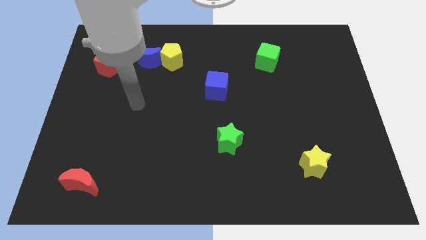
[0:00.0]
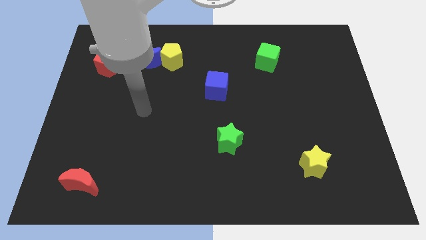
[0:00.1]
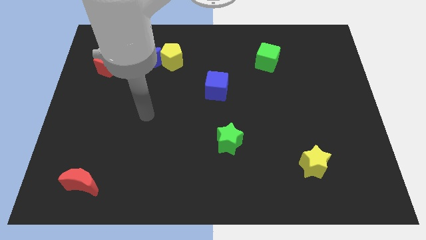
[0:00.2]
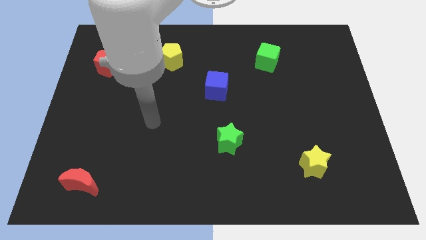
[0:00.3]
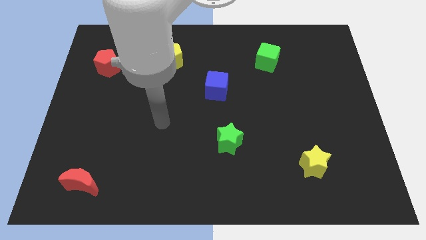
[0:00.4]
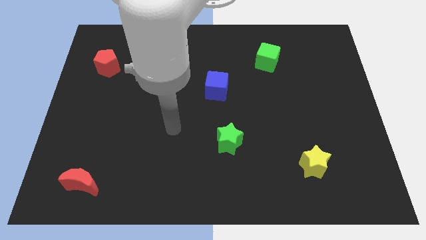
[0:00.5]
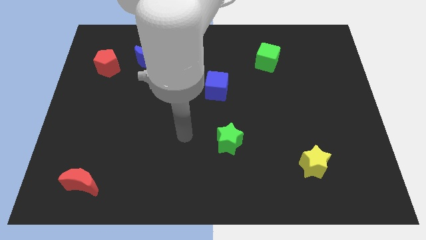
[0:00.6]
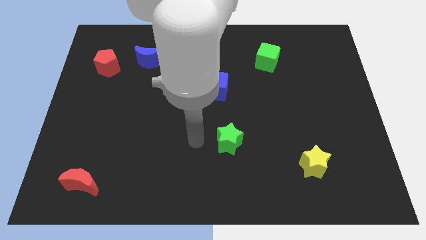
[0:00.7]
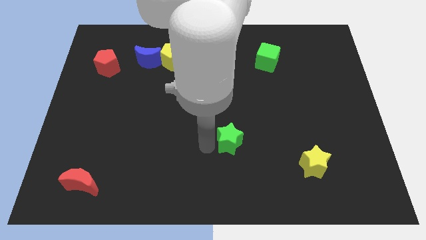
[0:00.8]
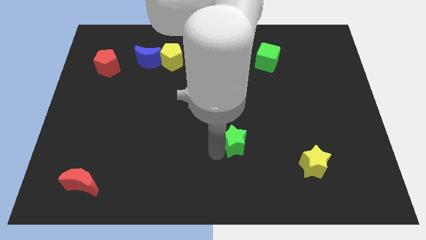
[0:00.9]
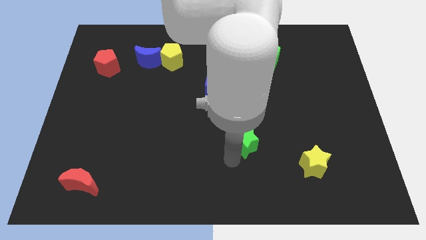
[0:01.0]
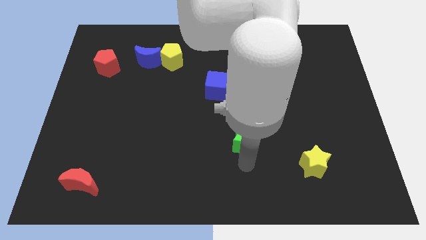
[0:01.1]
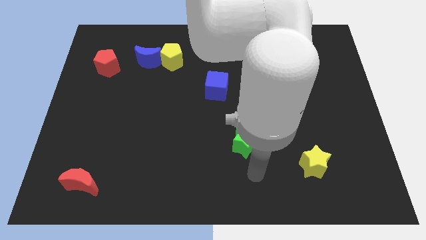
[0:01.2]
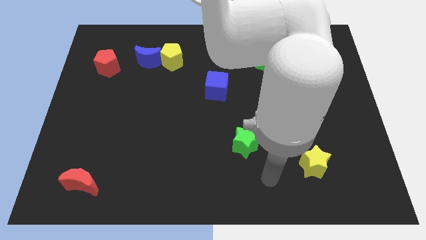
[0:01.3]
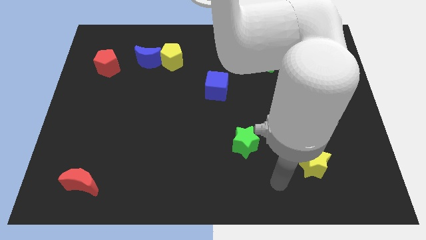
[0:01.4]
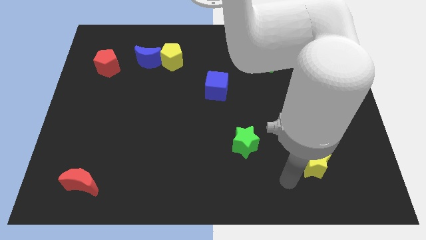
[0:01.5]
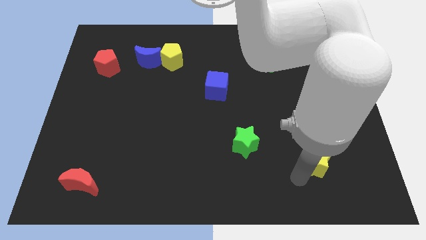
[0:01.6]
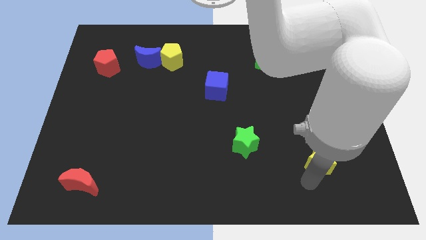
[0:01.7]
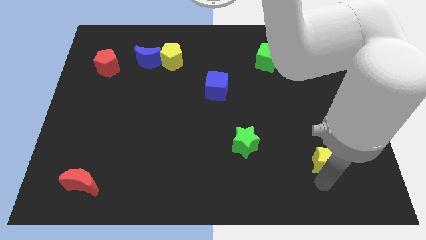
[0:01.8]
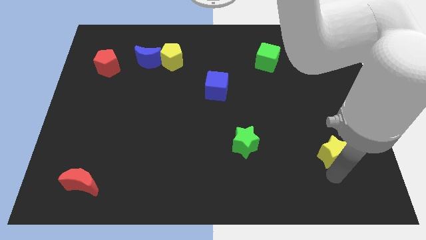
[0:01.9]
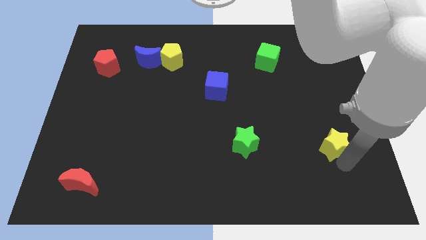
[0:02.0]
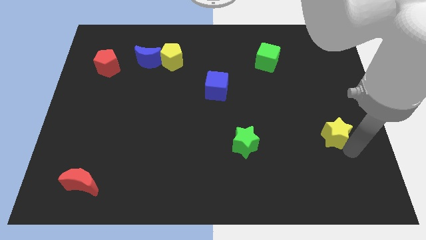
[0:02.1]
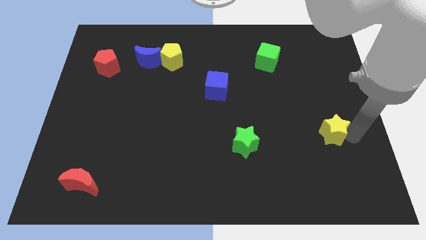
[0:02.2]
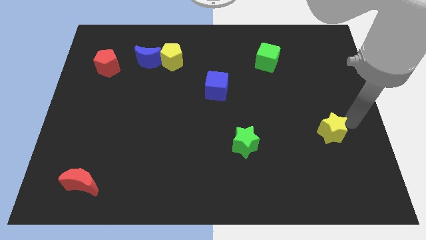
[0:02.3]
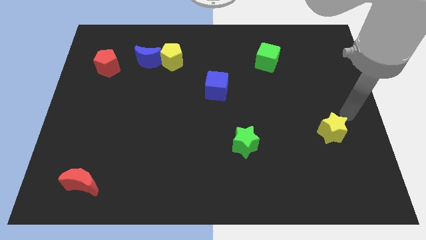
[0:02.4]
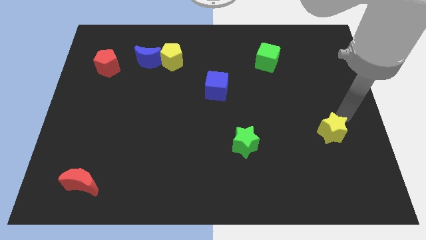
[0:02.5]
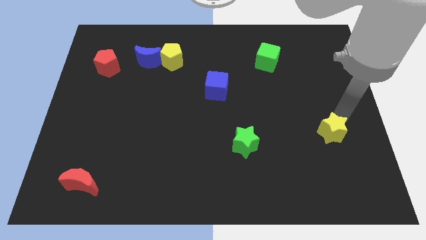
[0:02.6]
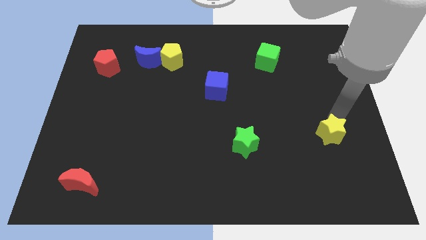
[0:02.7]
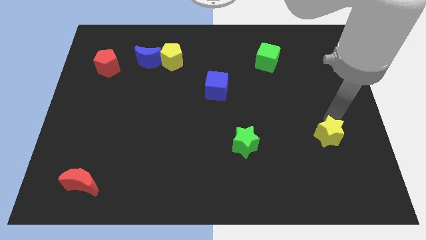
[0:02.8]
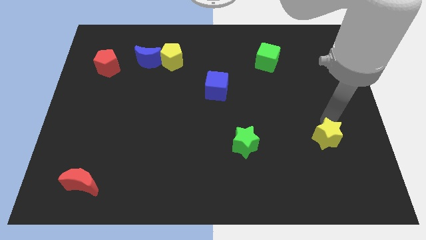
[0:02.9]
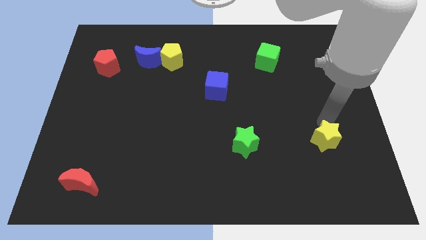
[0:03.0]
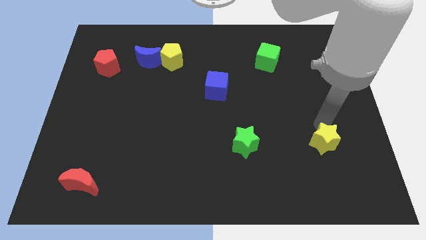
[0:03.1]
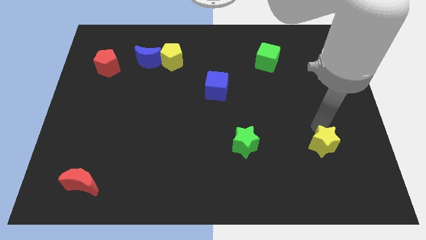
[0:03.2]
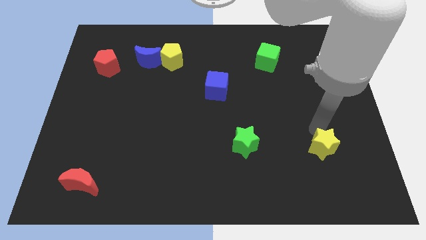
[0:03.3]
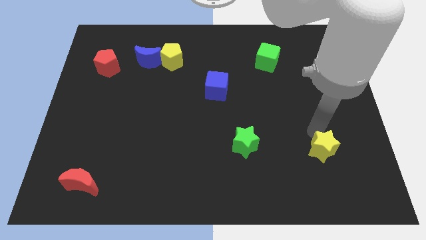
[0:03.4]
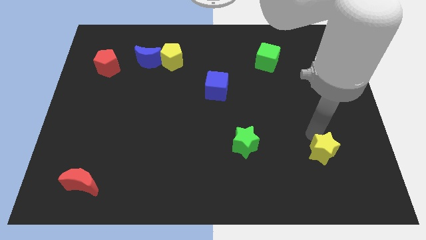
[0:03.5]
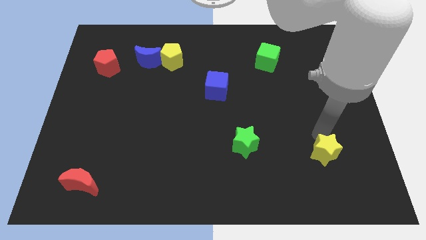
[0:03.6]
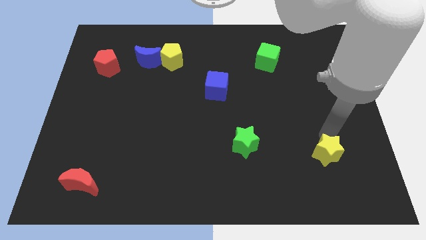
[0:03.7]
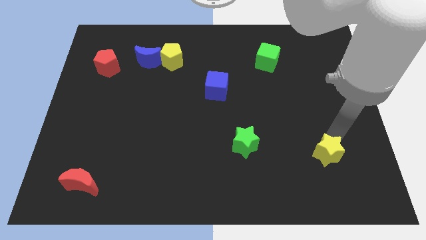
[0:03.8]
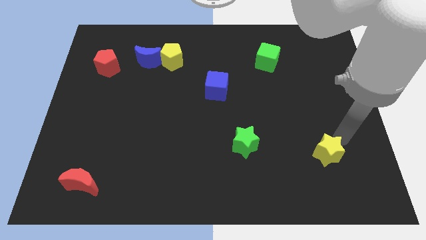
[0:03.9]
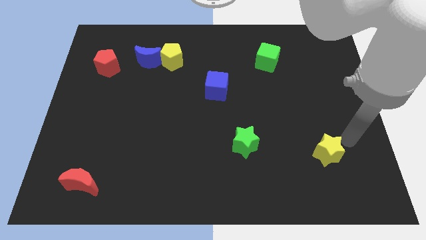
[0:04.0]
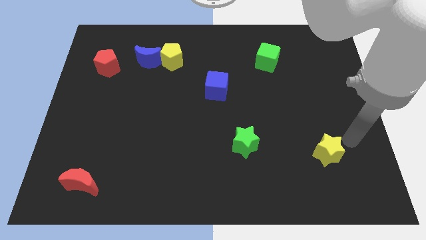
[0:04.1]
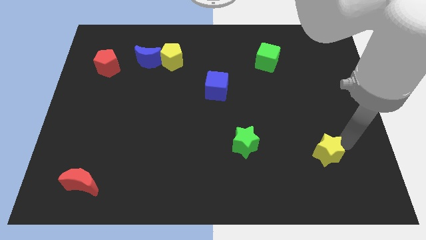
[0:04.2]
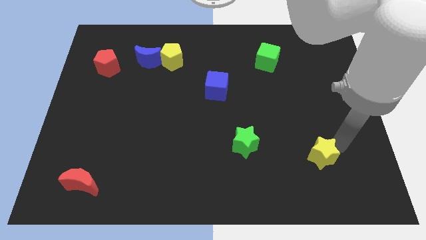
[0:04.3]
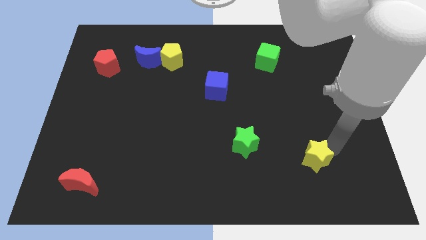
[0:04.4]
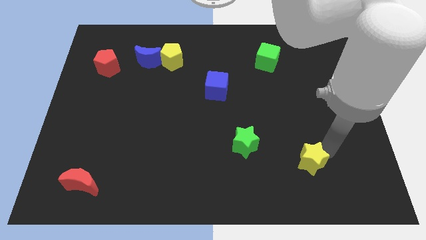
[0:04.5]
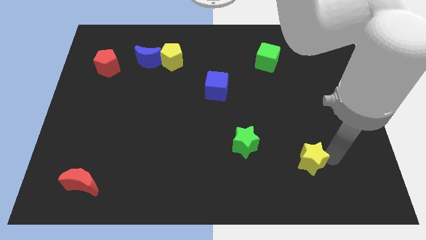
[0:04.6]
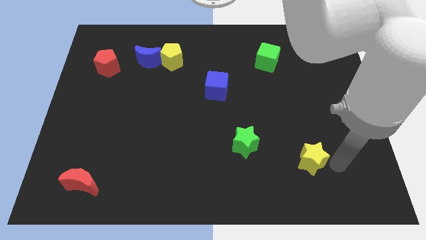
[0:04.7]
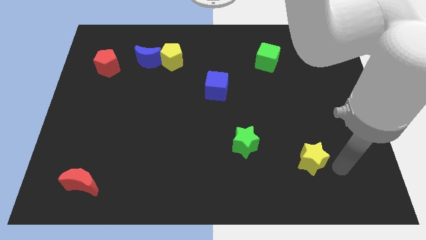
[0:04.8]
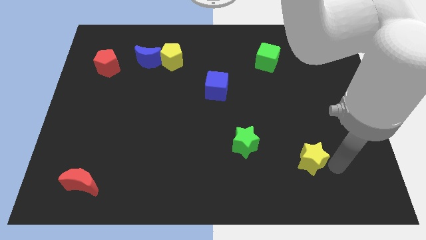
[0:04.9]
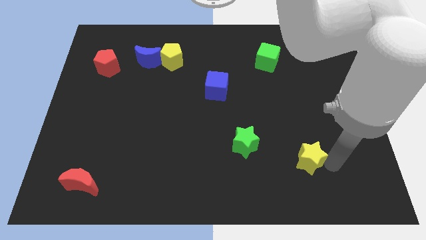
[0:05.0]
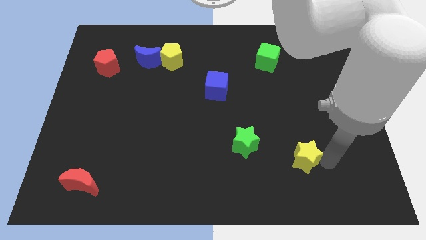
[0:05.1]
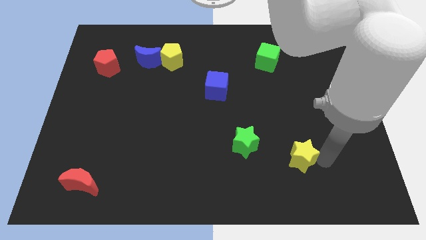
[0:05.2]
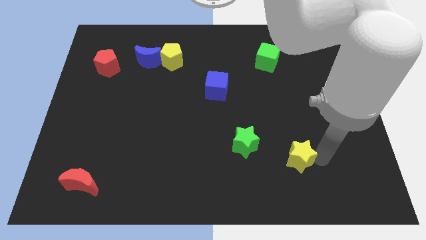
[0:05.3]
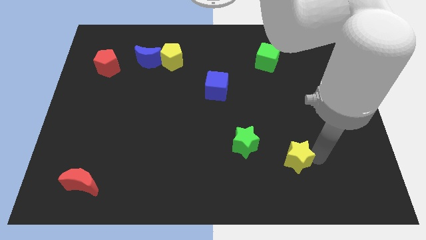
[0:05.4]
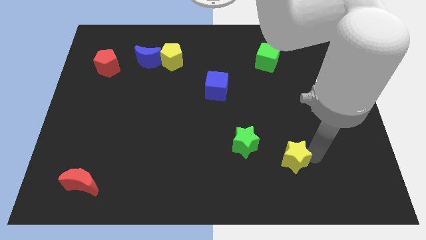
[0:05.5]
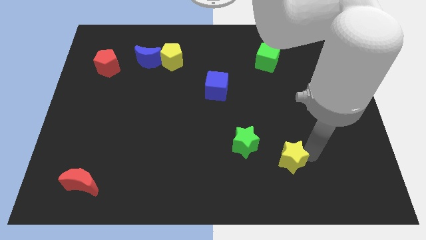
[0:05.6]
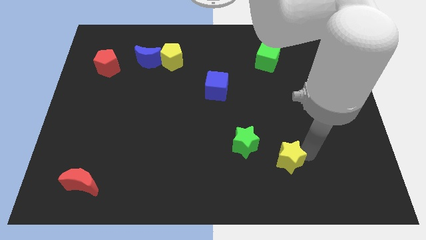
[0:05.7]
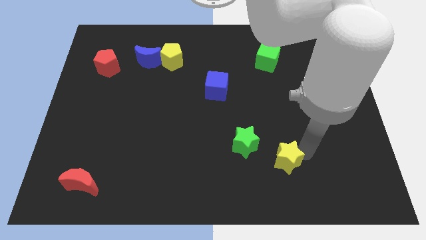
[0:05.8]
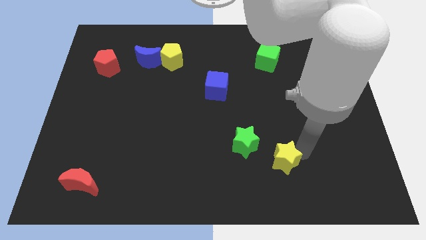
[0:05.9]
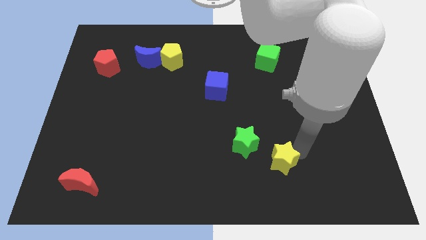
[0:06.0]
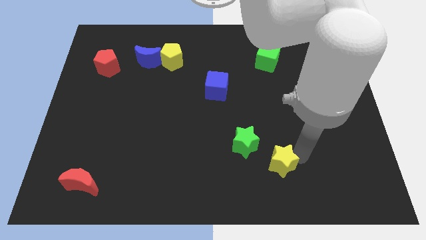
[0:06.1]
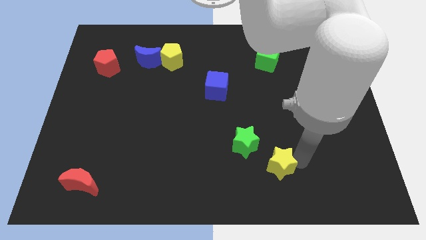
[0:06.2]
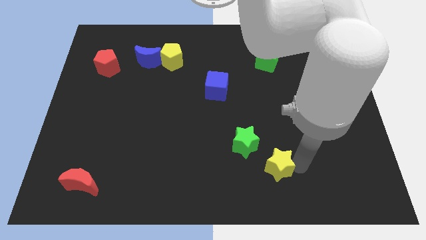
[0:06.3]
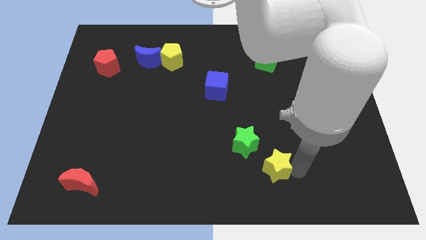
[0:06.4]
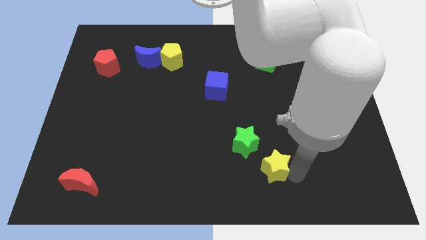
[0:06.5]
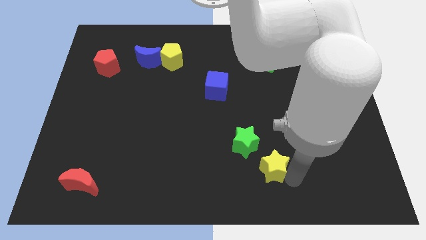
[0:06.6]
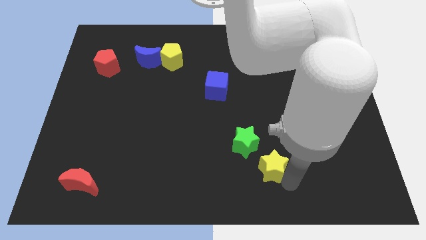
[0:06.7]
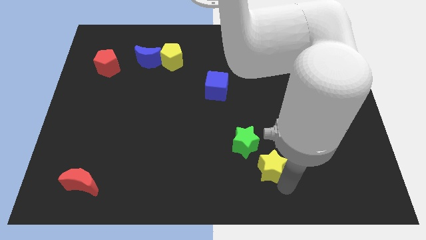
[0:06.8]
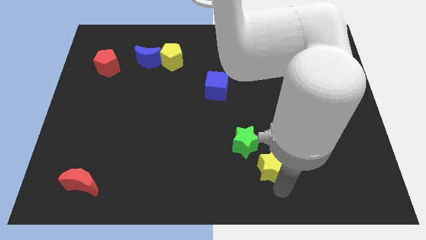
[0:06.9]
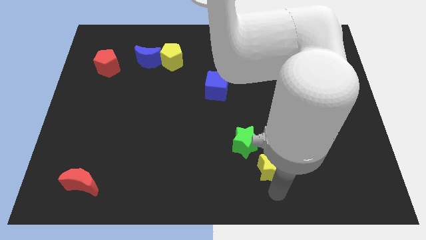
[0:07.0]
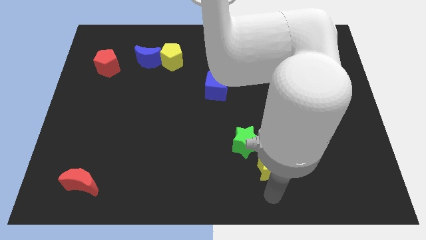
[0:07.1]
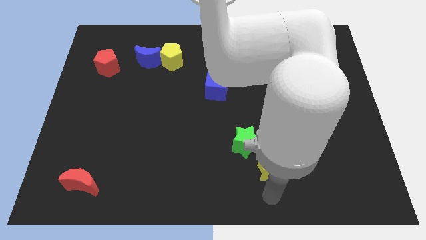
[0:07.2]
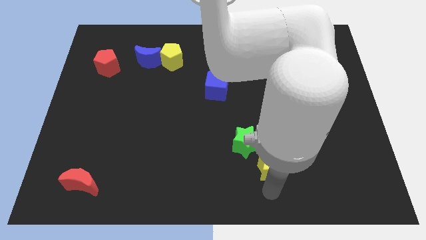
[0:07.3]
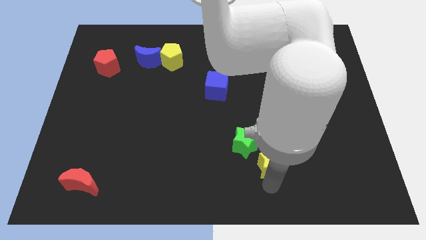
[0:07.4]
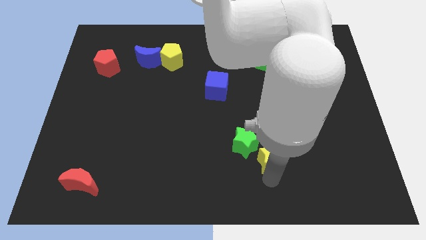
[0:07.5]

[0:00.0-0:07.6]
slide the yellow star towards the green star

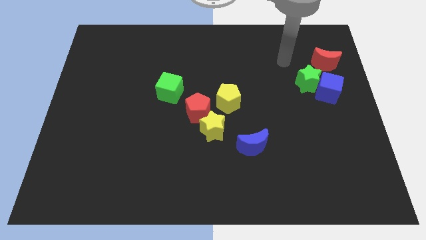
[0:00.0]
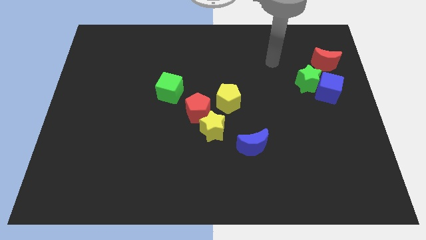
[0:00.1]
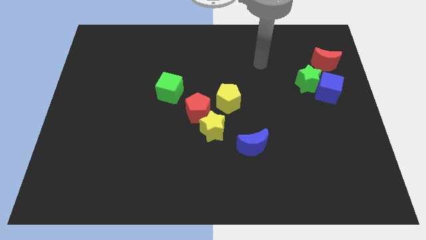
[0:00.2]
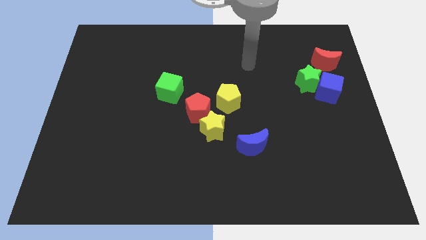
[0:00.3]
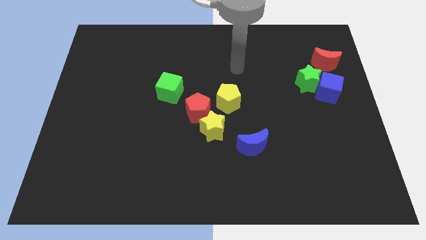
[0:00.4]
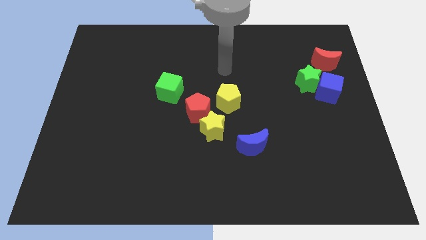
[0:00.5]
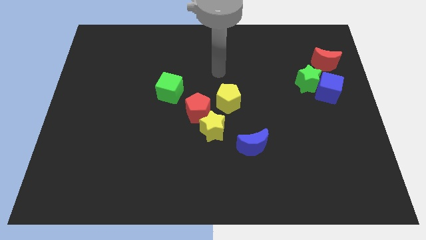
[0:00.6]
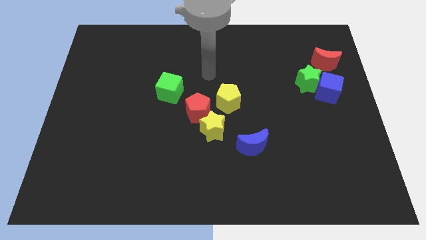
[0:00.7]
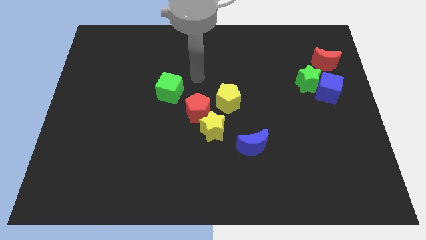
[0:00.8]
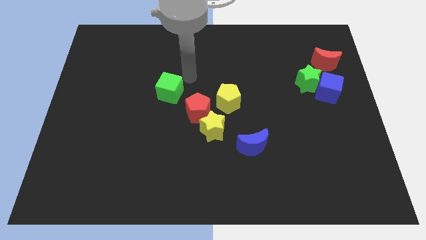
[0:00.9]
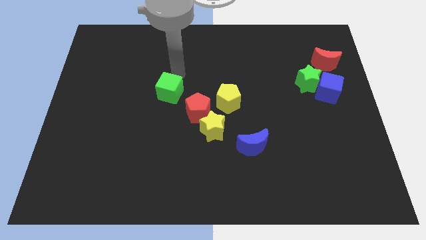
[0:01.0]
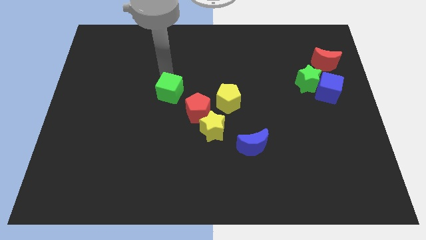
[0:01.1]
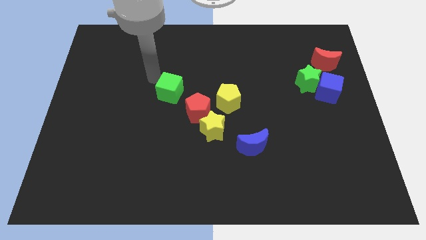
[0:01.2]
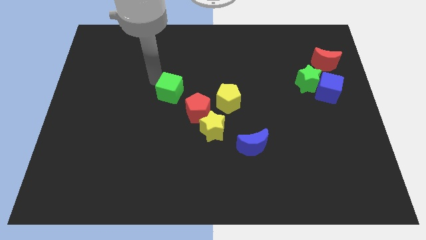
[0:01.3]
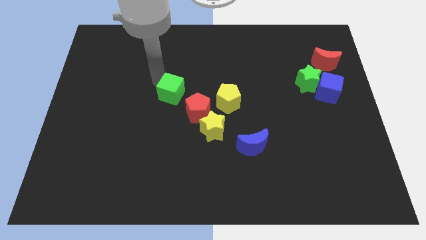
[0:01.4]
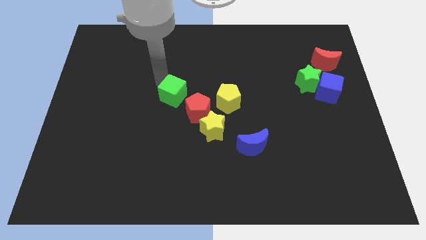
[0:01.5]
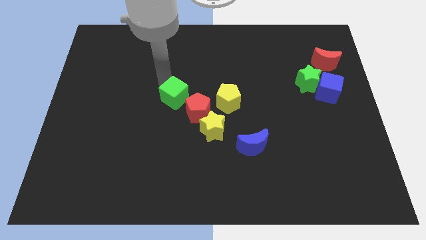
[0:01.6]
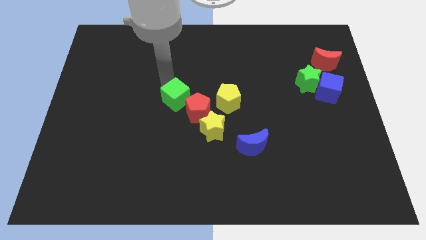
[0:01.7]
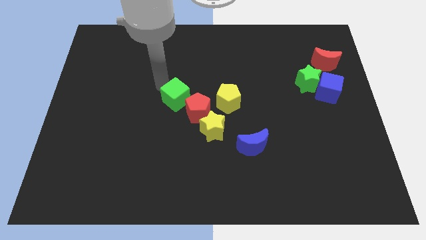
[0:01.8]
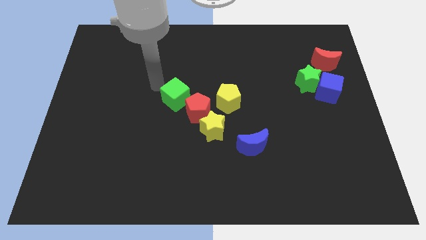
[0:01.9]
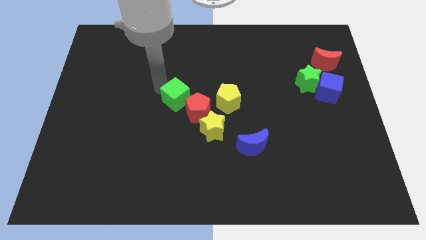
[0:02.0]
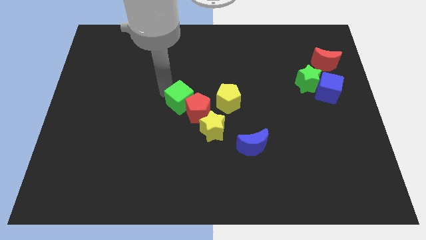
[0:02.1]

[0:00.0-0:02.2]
put the green cube close to the red pentagon
